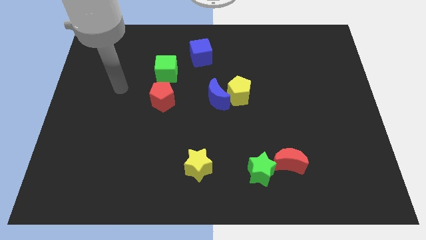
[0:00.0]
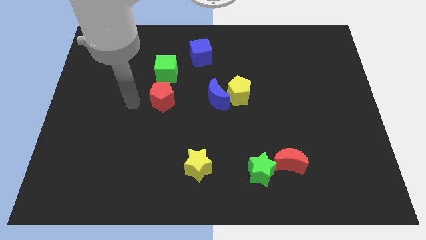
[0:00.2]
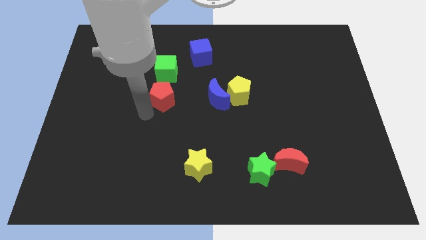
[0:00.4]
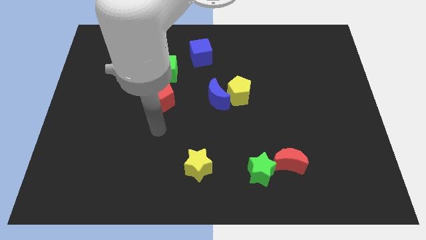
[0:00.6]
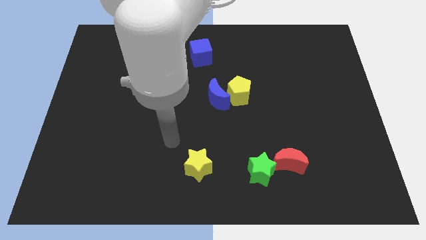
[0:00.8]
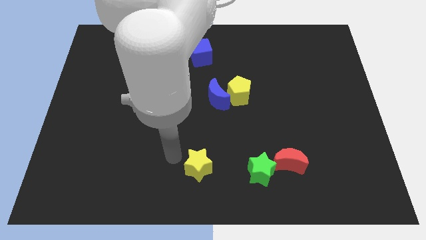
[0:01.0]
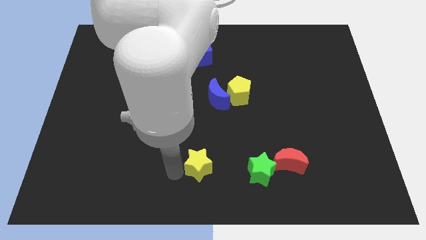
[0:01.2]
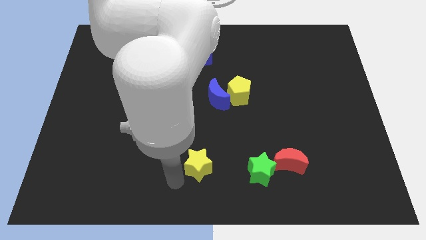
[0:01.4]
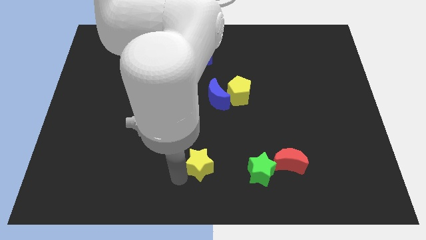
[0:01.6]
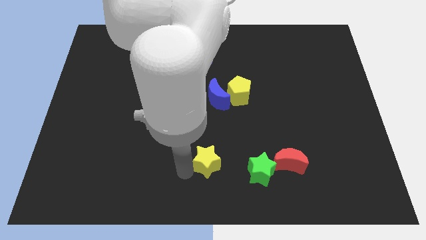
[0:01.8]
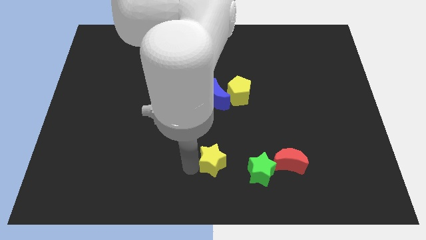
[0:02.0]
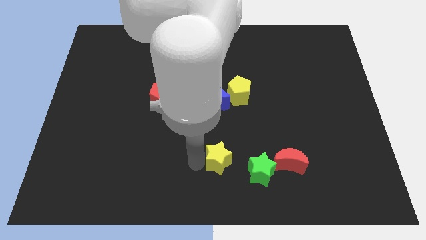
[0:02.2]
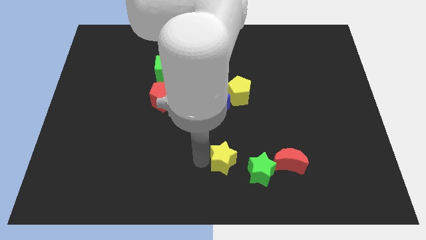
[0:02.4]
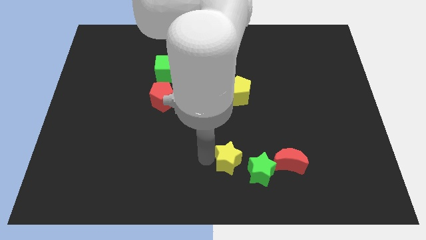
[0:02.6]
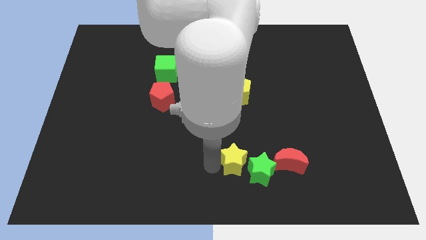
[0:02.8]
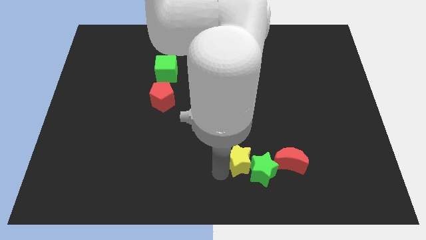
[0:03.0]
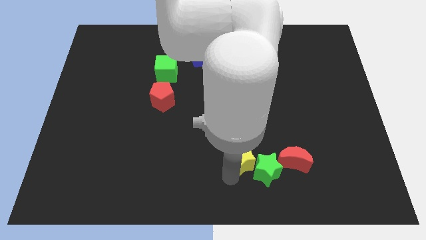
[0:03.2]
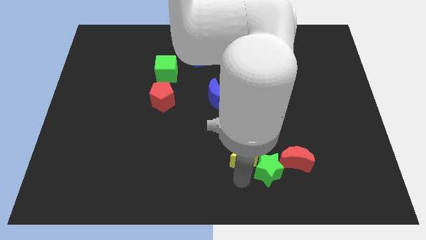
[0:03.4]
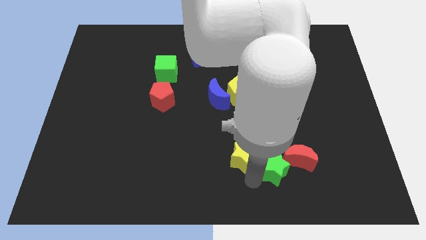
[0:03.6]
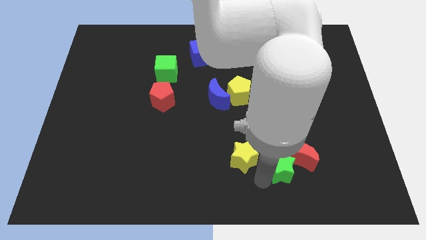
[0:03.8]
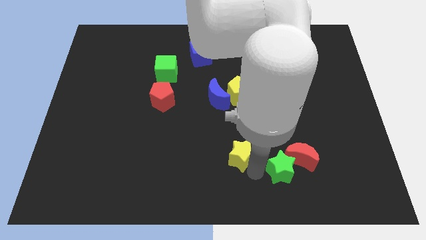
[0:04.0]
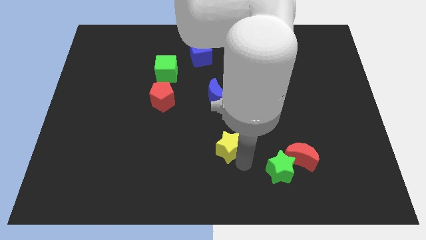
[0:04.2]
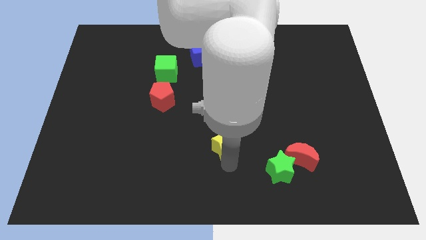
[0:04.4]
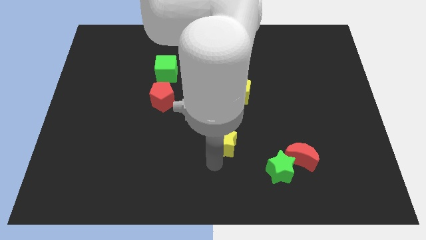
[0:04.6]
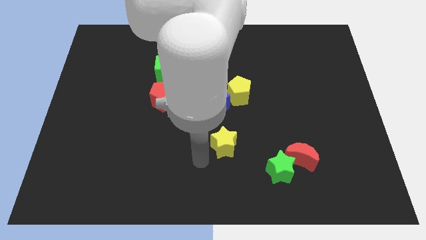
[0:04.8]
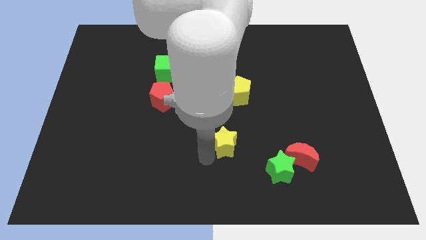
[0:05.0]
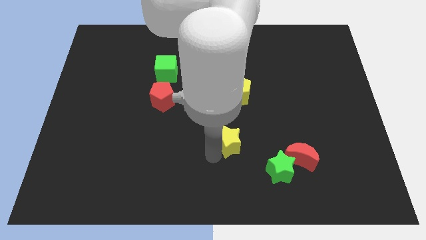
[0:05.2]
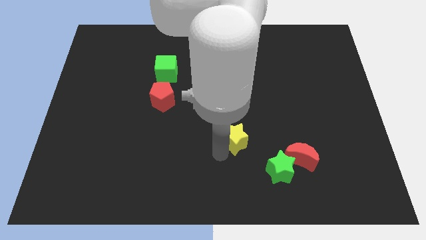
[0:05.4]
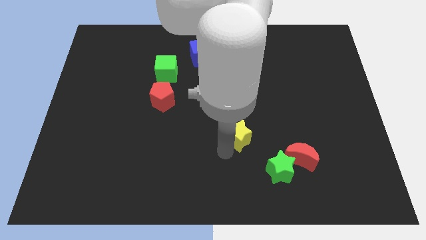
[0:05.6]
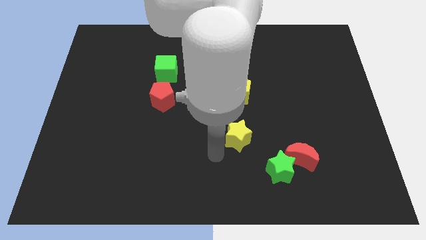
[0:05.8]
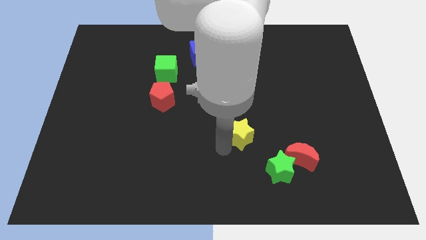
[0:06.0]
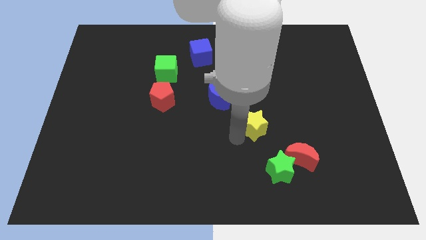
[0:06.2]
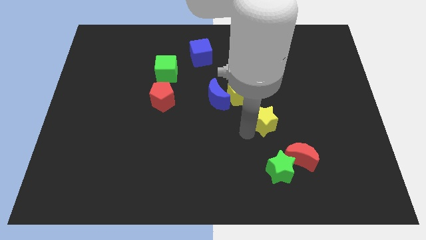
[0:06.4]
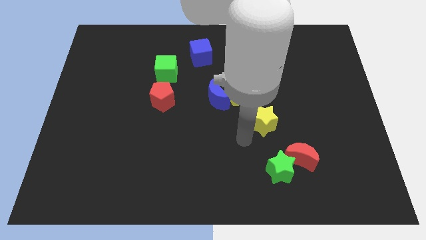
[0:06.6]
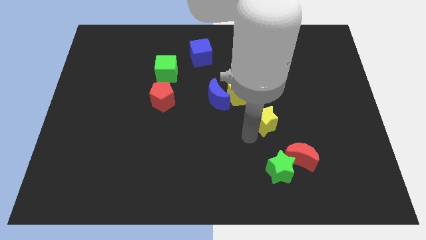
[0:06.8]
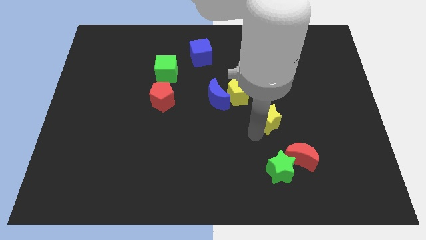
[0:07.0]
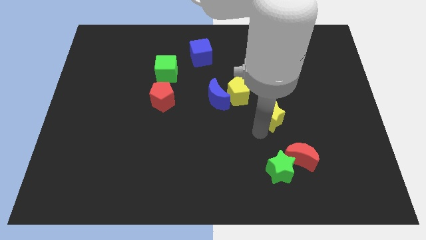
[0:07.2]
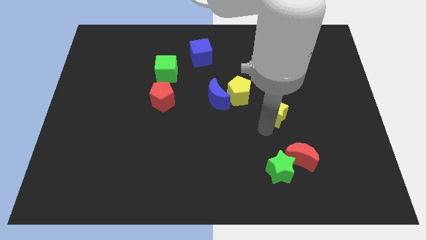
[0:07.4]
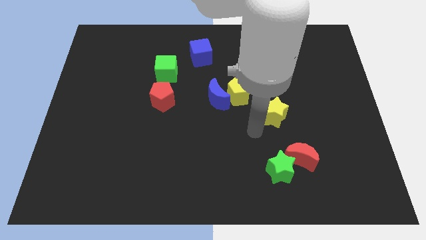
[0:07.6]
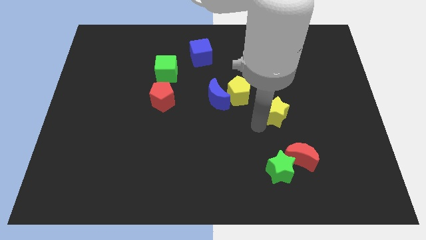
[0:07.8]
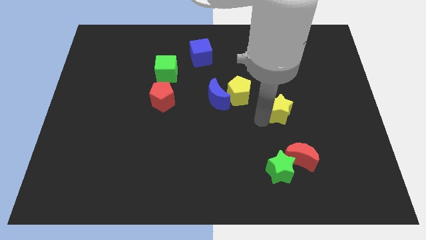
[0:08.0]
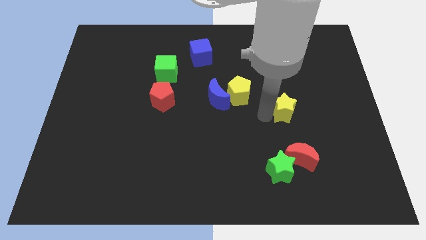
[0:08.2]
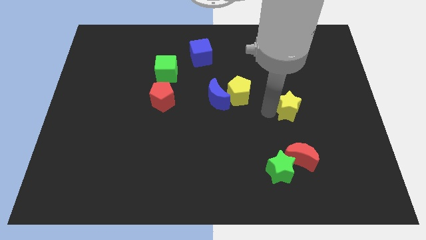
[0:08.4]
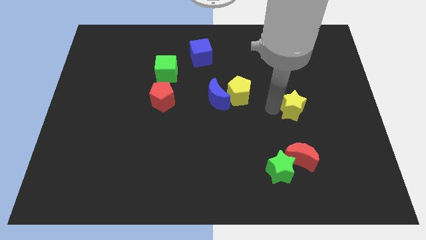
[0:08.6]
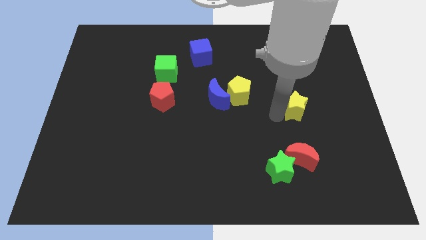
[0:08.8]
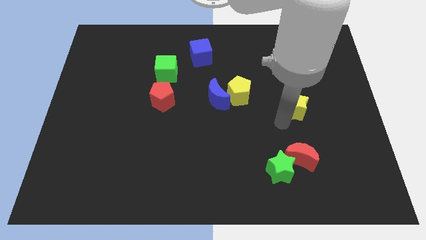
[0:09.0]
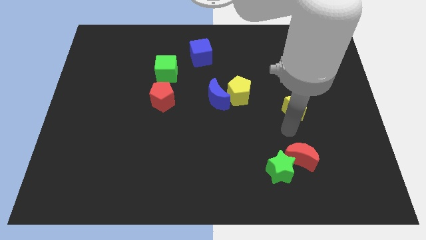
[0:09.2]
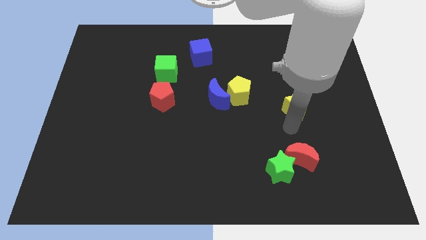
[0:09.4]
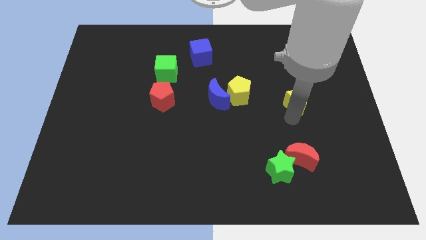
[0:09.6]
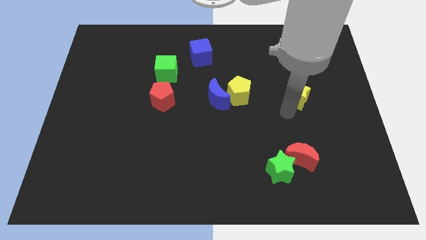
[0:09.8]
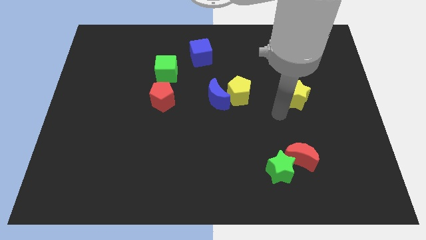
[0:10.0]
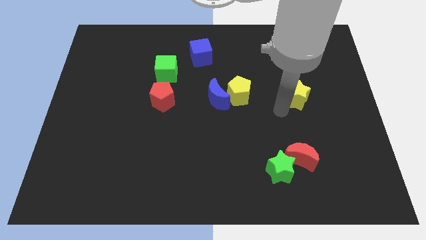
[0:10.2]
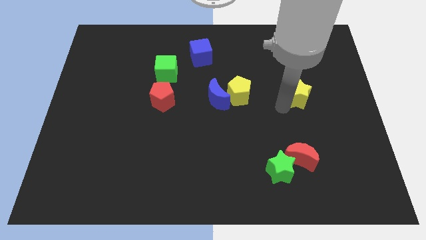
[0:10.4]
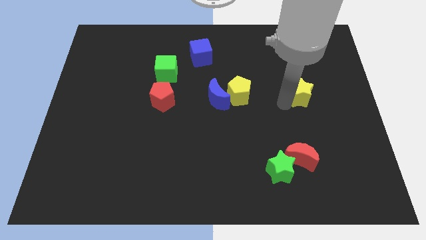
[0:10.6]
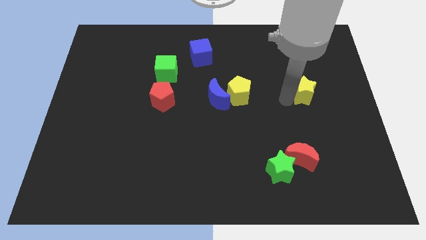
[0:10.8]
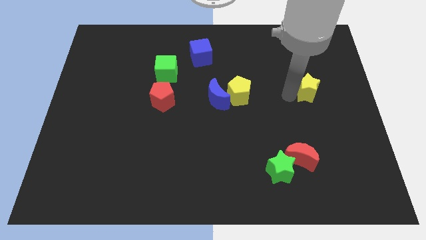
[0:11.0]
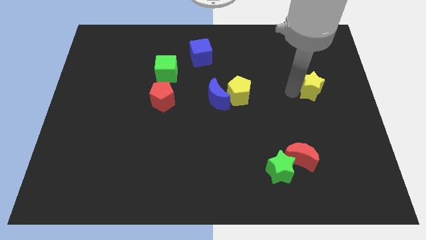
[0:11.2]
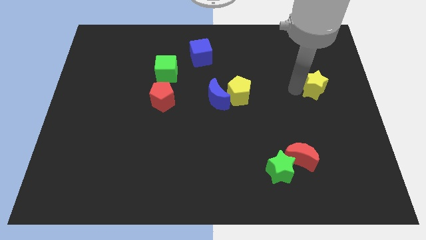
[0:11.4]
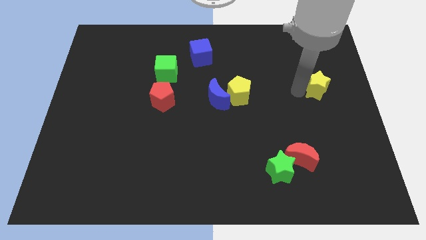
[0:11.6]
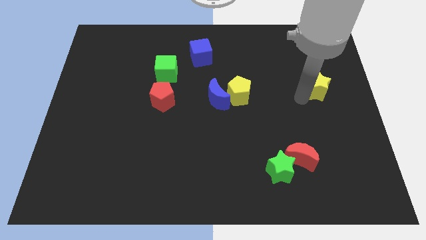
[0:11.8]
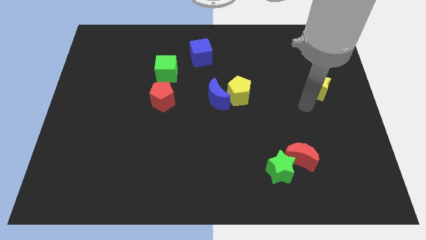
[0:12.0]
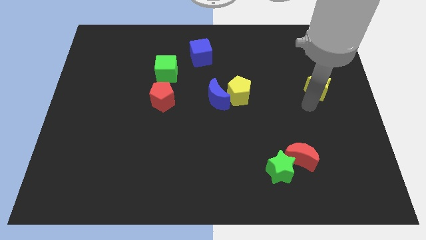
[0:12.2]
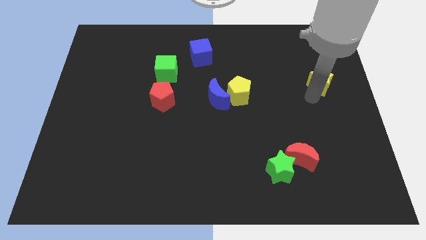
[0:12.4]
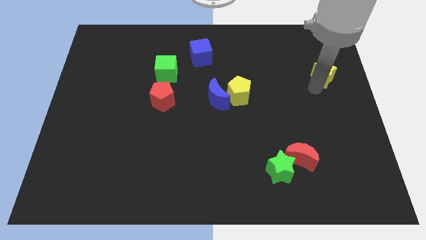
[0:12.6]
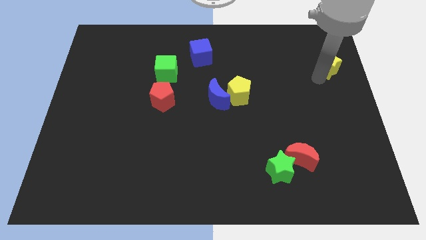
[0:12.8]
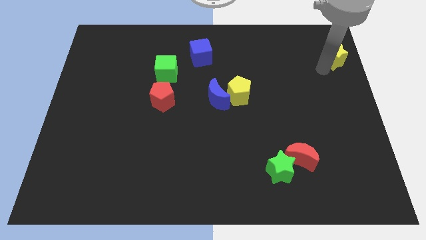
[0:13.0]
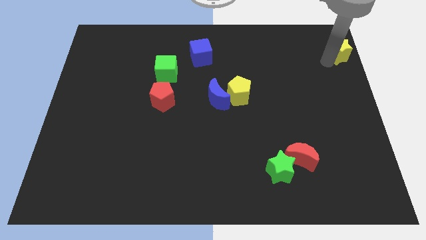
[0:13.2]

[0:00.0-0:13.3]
slide the yellow star to the top right
